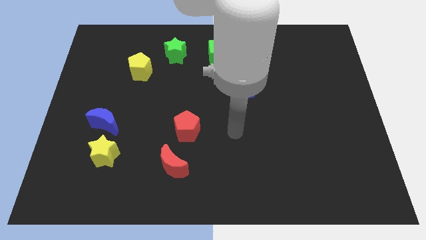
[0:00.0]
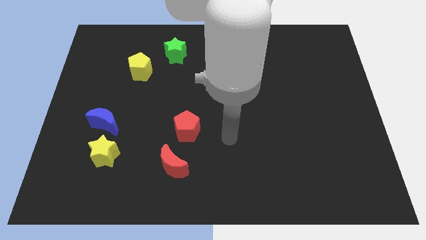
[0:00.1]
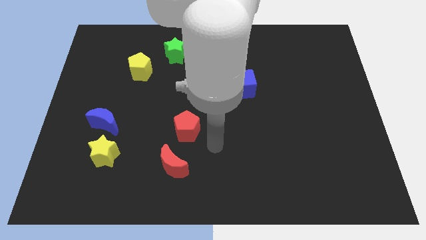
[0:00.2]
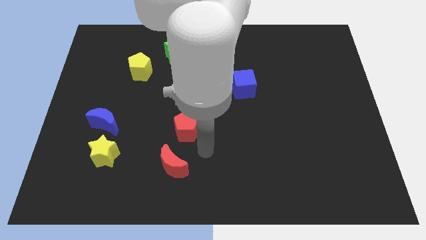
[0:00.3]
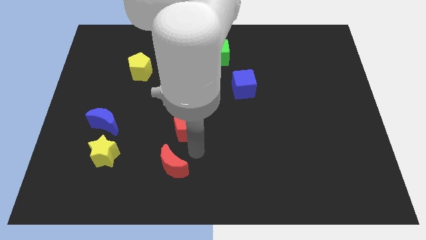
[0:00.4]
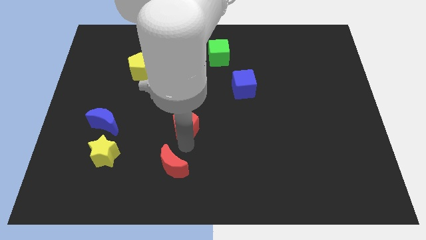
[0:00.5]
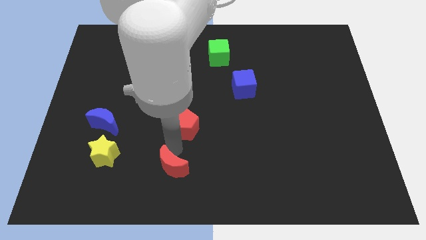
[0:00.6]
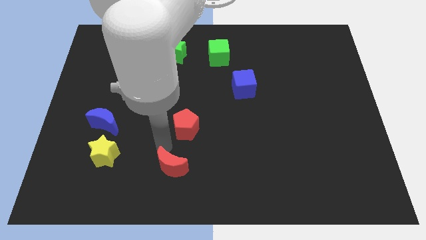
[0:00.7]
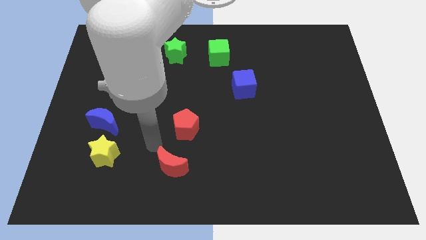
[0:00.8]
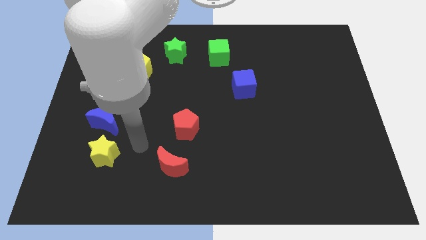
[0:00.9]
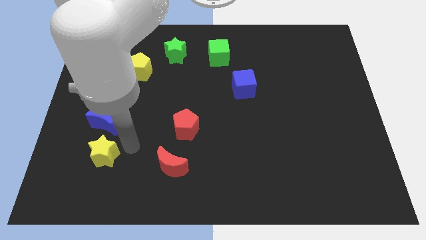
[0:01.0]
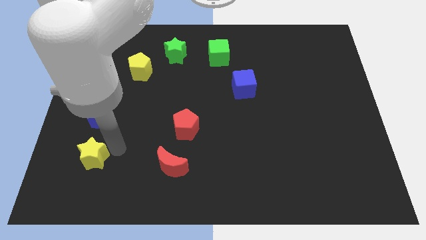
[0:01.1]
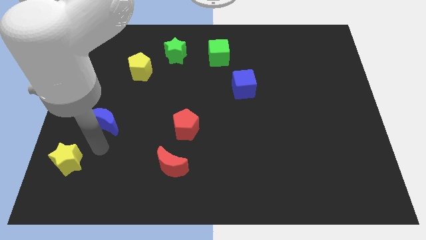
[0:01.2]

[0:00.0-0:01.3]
pull the blue moon apart from the yellow star

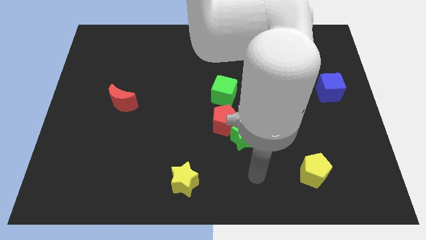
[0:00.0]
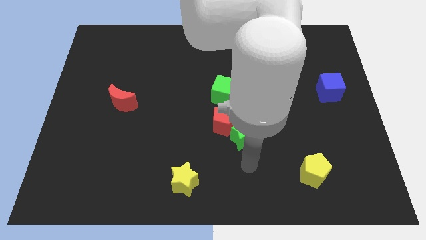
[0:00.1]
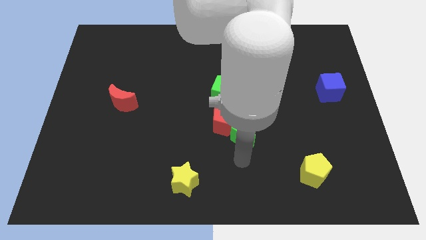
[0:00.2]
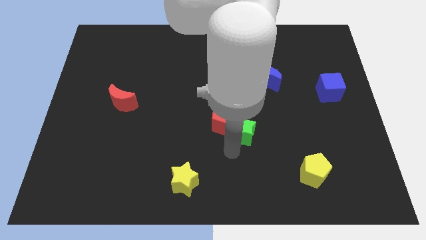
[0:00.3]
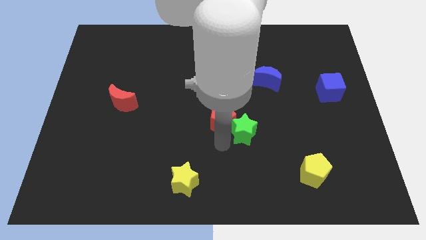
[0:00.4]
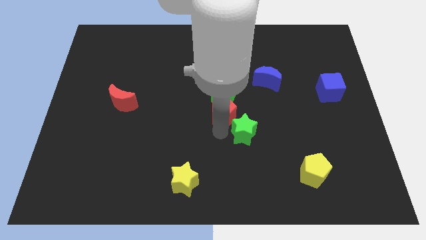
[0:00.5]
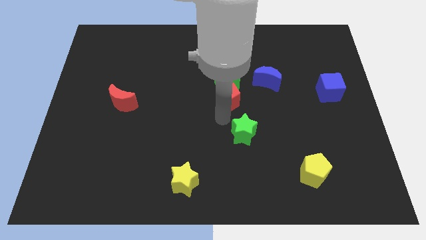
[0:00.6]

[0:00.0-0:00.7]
pull the green star apart from the red pentagon

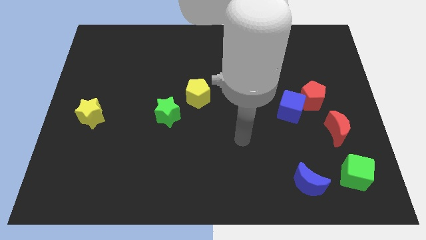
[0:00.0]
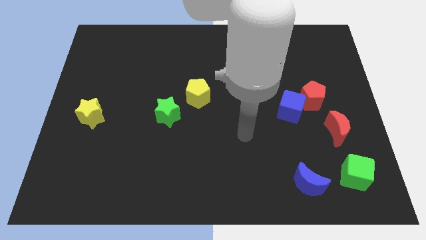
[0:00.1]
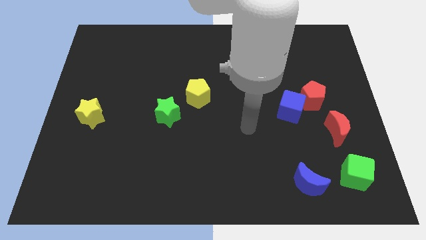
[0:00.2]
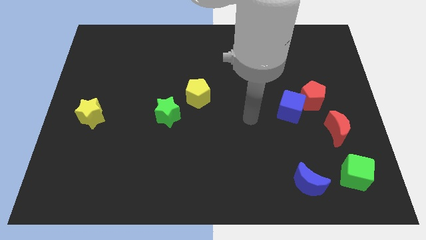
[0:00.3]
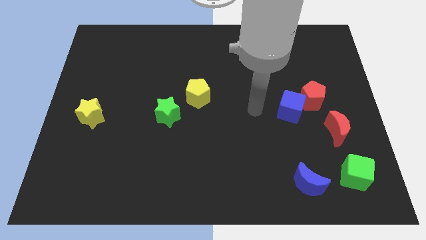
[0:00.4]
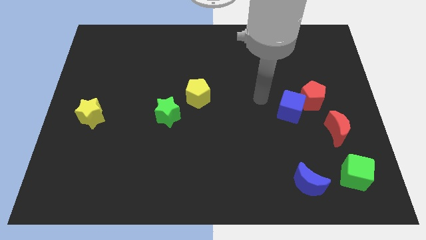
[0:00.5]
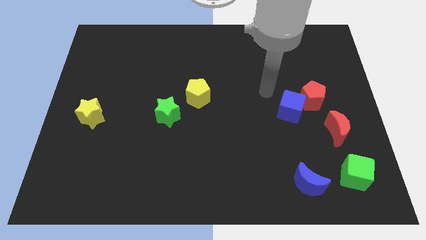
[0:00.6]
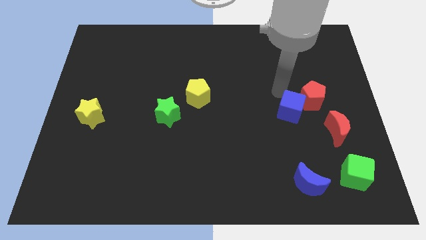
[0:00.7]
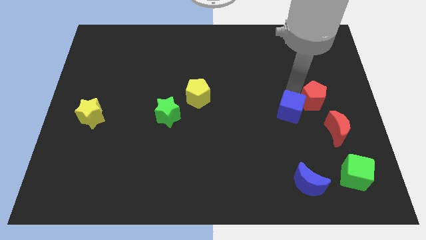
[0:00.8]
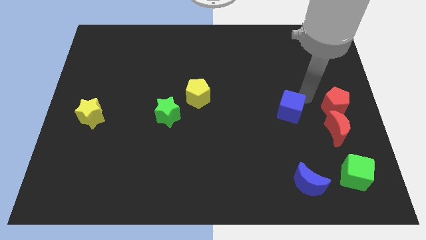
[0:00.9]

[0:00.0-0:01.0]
separate the blue cube from the red pentagon

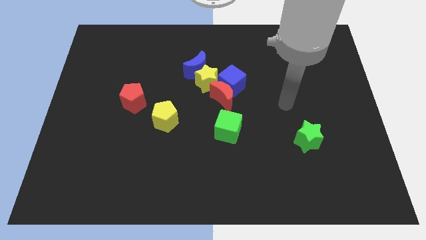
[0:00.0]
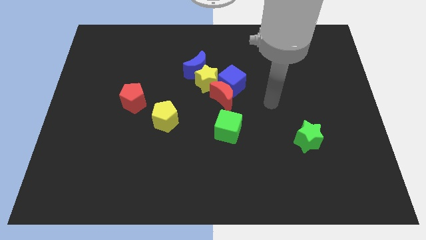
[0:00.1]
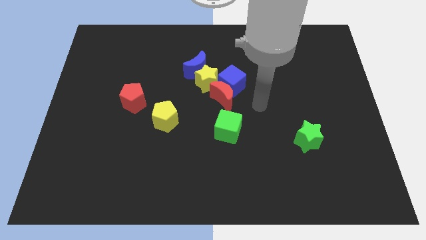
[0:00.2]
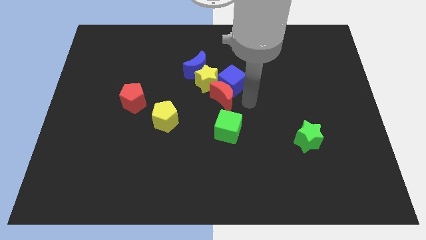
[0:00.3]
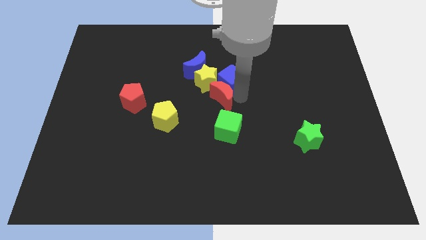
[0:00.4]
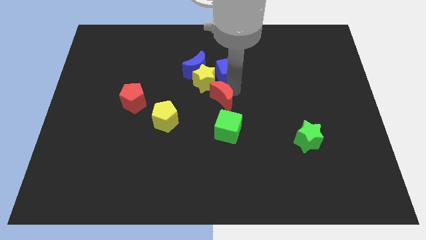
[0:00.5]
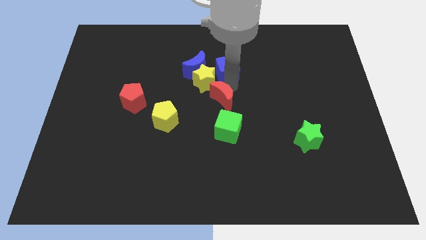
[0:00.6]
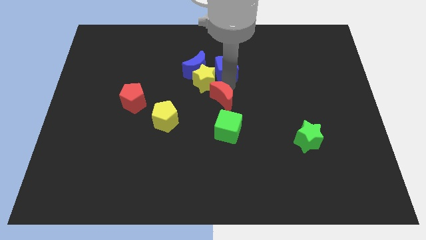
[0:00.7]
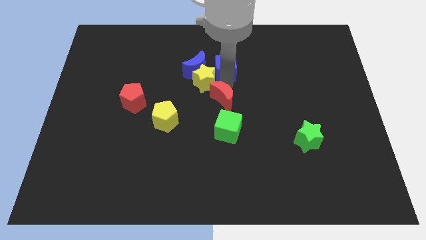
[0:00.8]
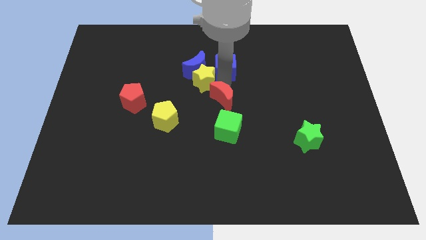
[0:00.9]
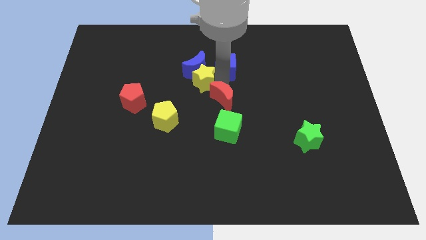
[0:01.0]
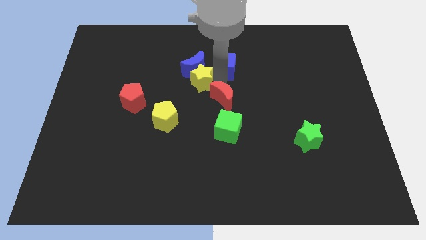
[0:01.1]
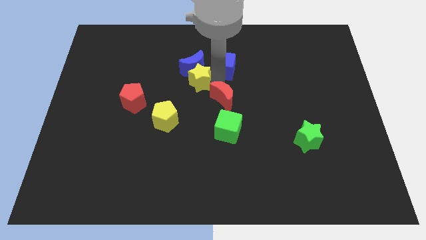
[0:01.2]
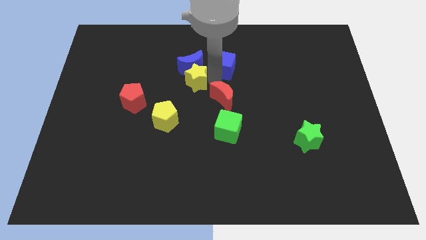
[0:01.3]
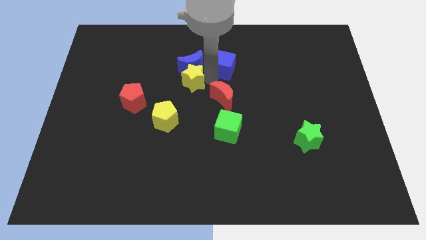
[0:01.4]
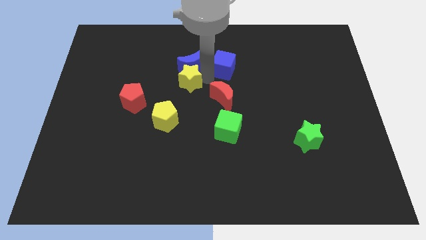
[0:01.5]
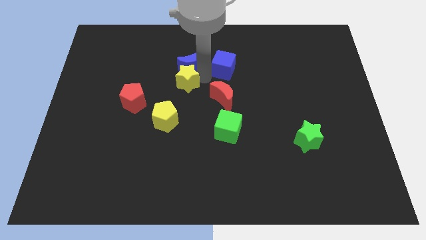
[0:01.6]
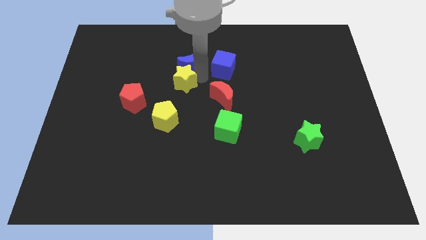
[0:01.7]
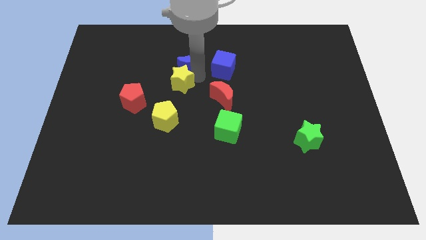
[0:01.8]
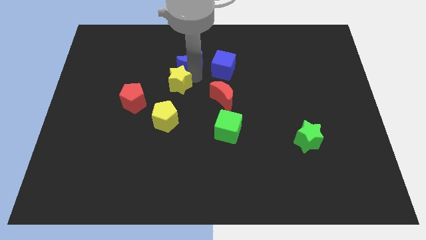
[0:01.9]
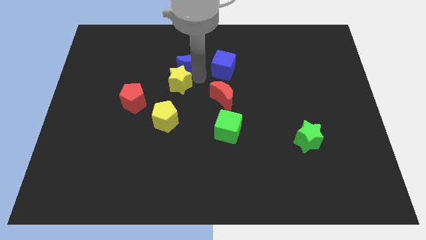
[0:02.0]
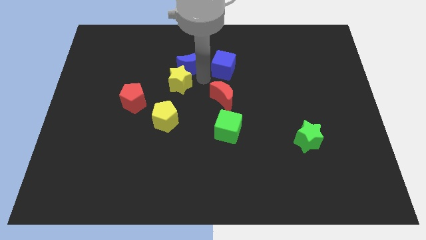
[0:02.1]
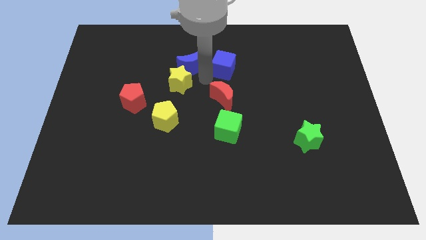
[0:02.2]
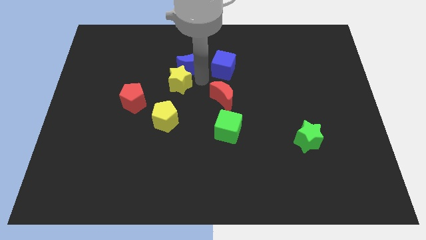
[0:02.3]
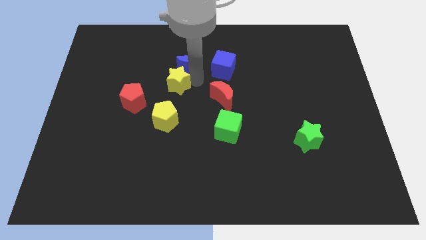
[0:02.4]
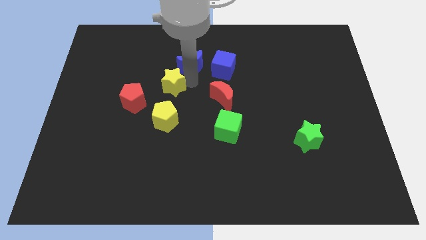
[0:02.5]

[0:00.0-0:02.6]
separate the yellow star from the clump

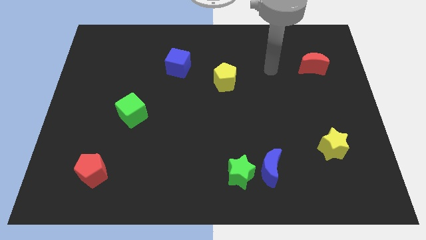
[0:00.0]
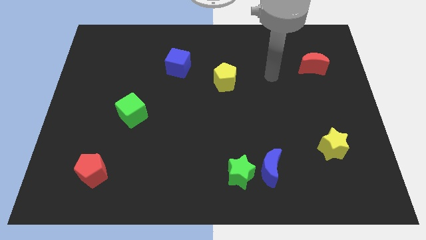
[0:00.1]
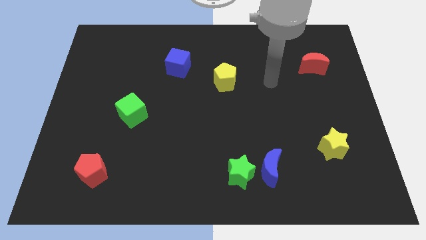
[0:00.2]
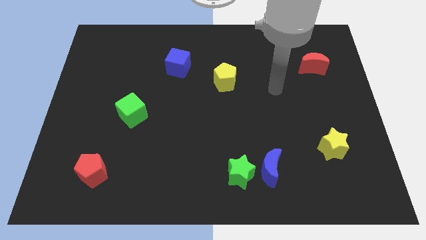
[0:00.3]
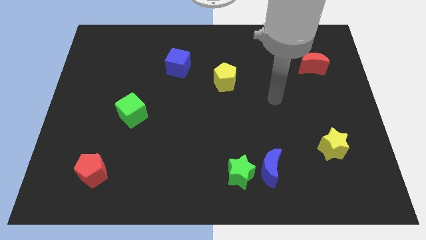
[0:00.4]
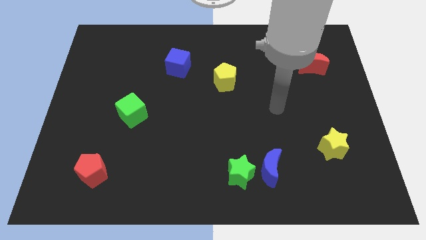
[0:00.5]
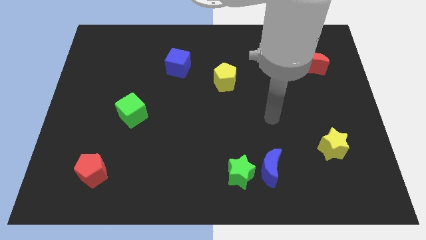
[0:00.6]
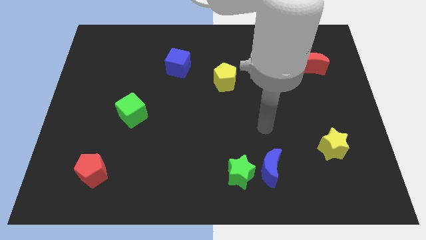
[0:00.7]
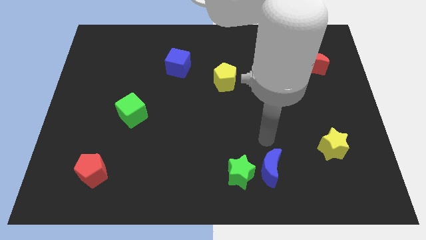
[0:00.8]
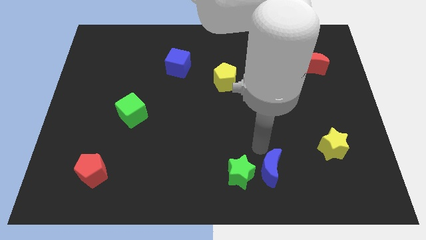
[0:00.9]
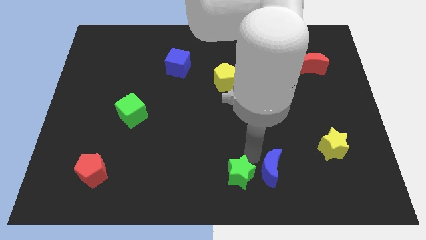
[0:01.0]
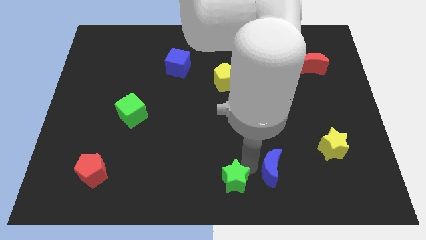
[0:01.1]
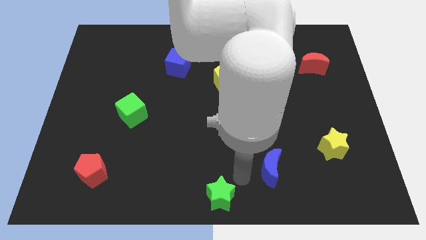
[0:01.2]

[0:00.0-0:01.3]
pull the blue moon apart from the green star

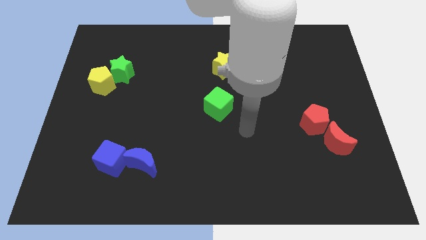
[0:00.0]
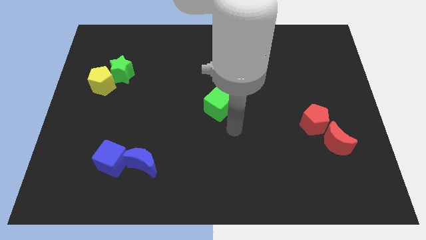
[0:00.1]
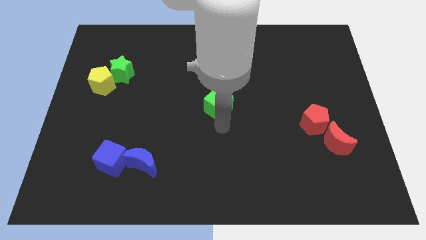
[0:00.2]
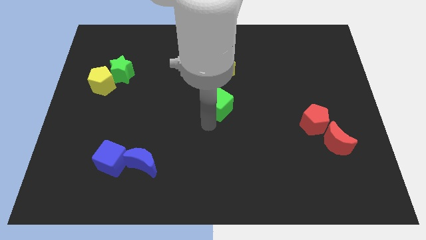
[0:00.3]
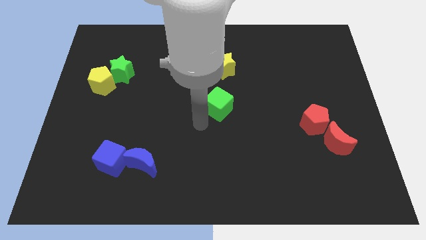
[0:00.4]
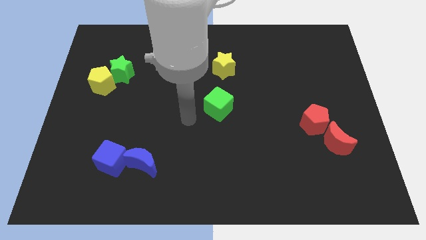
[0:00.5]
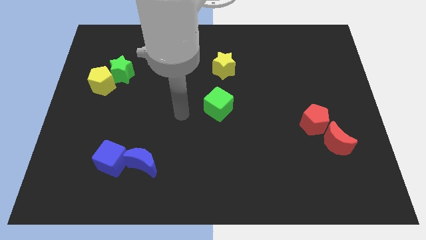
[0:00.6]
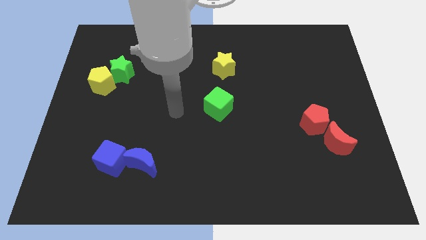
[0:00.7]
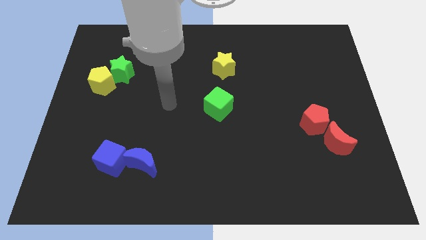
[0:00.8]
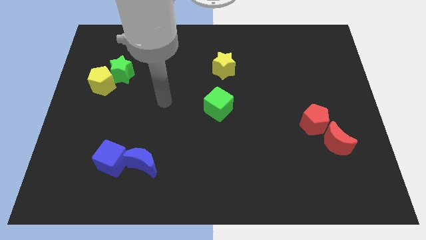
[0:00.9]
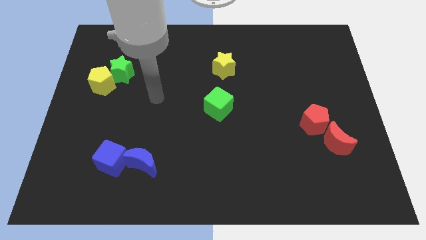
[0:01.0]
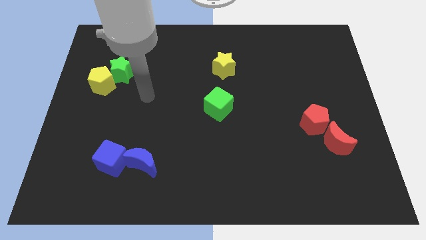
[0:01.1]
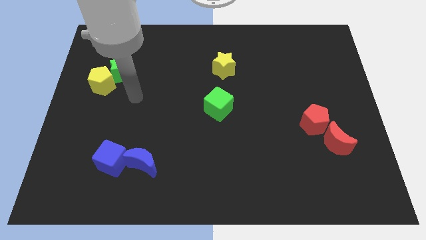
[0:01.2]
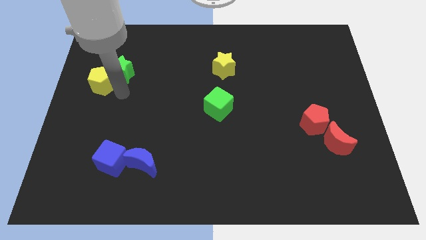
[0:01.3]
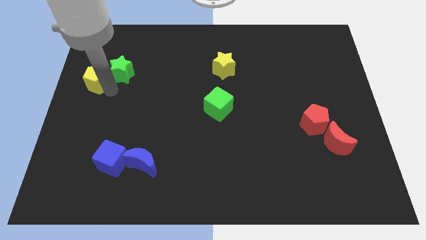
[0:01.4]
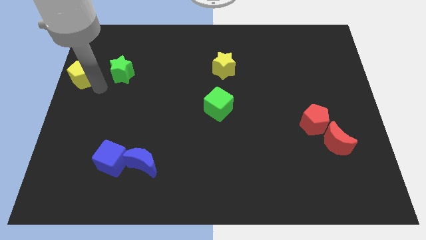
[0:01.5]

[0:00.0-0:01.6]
separate the green star from the yellow pentagon

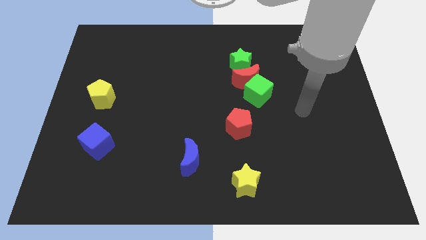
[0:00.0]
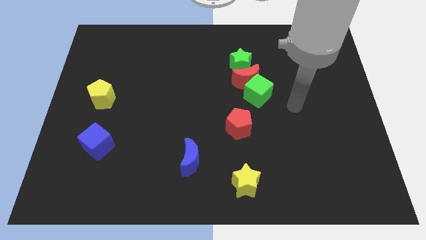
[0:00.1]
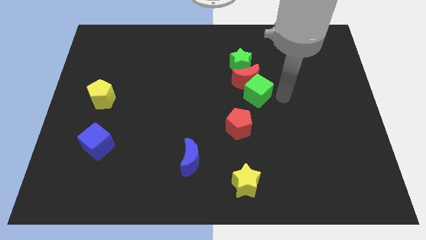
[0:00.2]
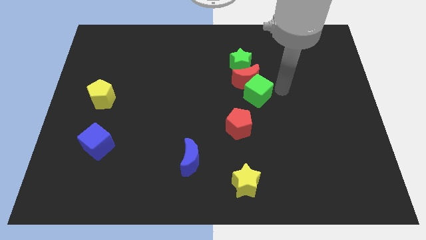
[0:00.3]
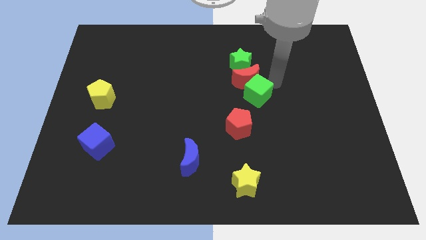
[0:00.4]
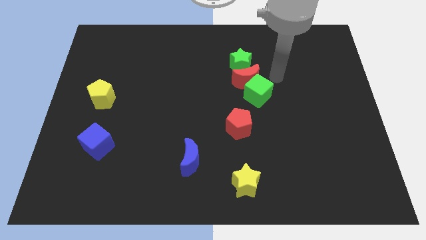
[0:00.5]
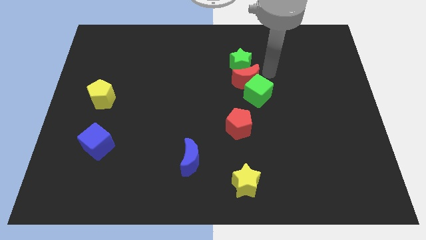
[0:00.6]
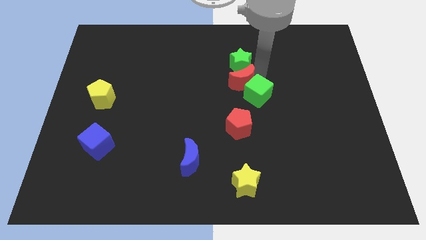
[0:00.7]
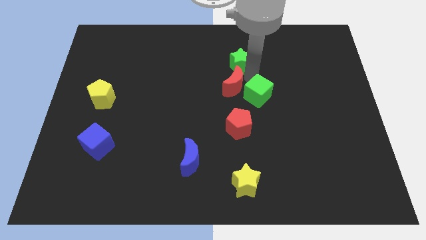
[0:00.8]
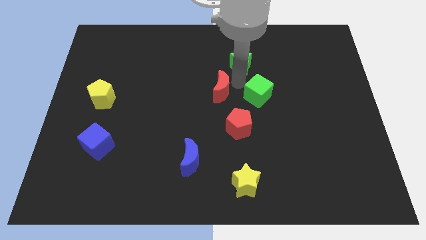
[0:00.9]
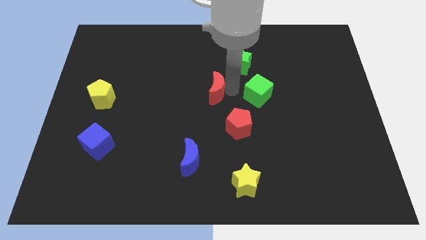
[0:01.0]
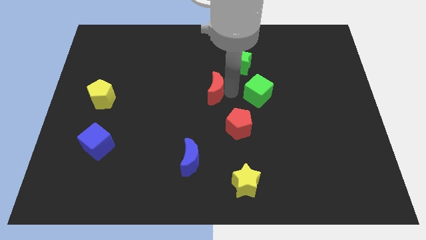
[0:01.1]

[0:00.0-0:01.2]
separate the green cube from the red moon
